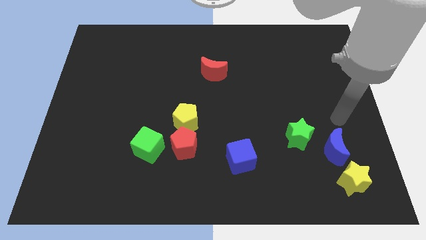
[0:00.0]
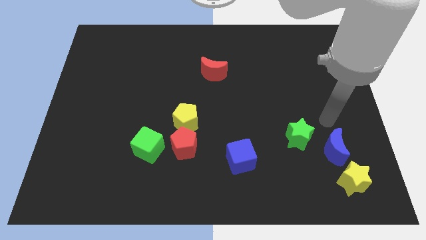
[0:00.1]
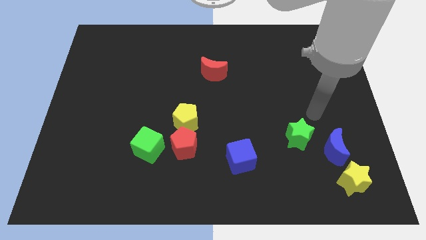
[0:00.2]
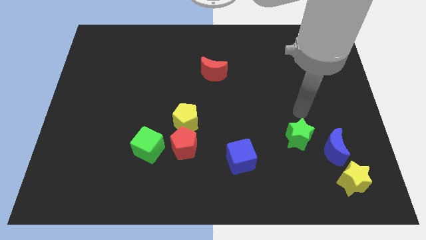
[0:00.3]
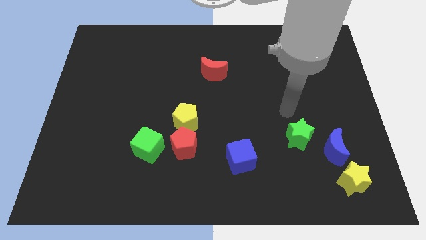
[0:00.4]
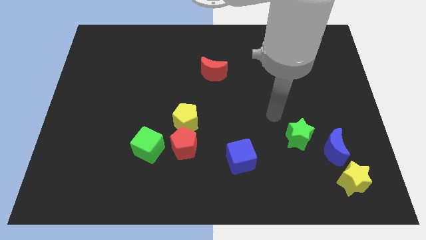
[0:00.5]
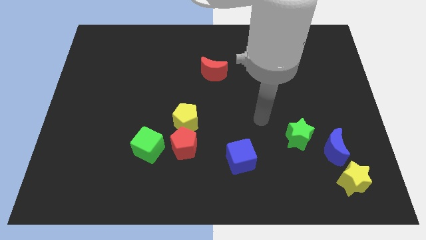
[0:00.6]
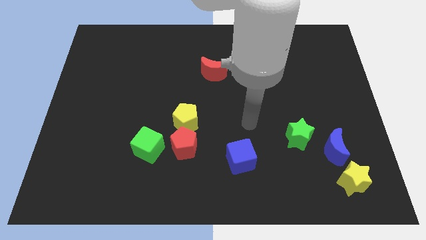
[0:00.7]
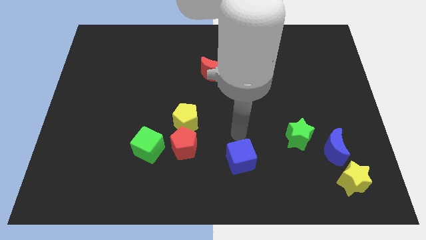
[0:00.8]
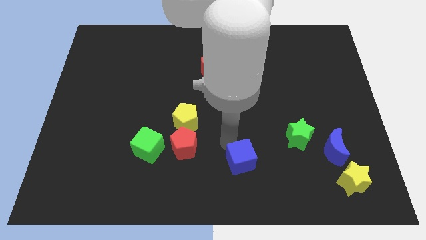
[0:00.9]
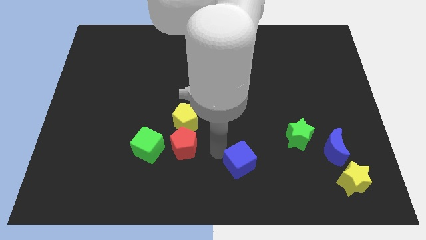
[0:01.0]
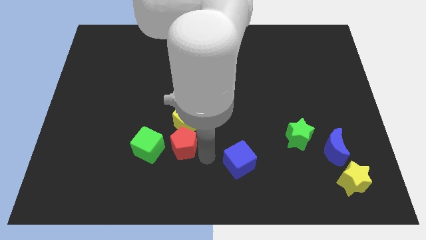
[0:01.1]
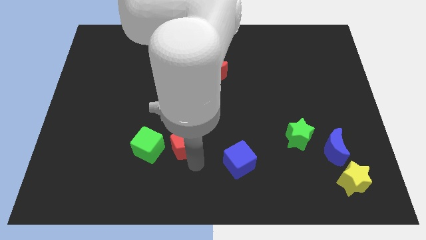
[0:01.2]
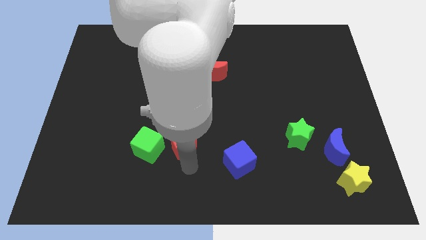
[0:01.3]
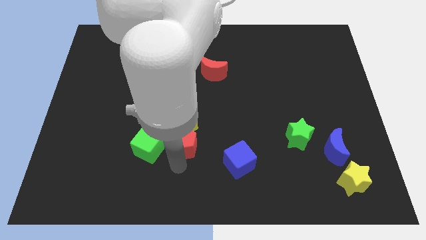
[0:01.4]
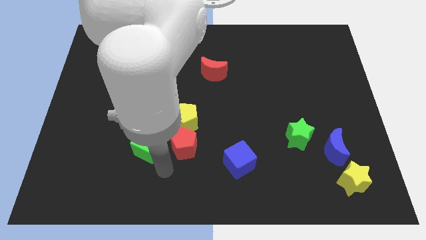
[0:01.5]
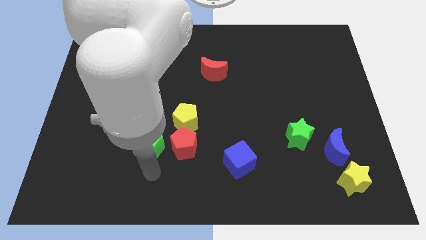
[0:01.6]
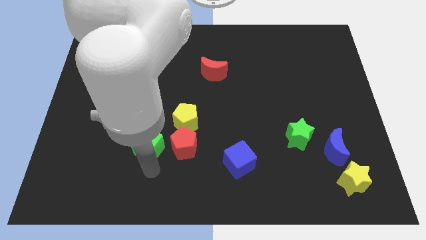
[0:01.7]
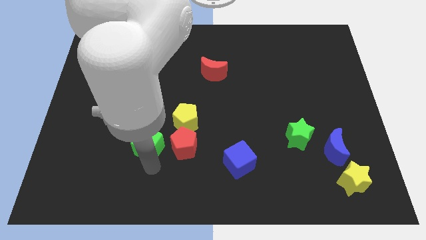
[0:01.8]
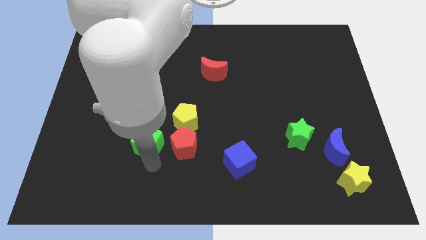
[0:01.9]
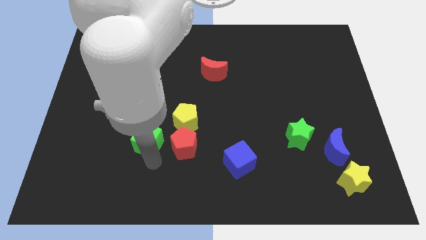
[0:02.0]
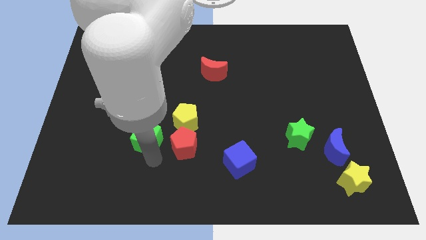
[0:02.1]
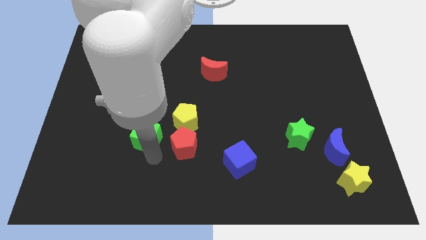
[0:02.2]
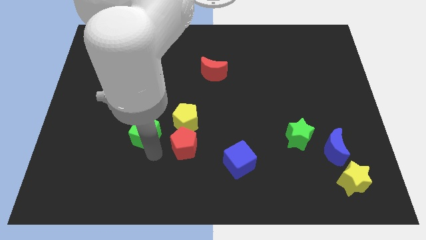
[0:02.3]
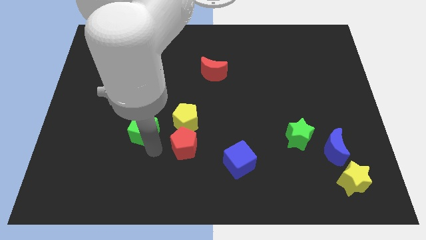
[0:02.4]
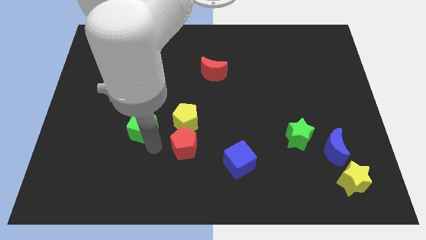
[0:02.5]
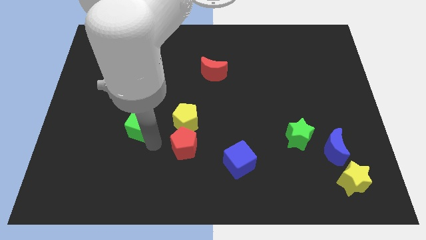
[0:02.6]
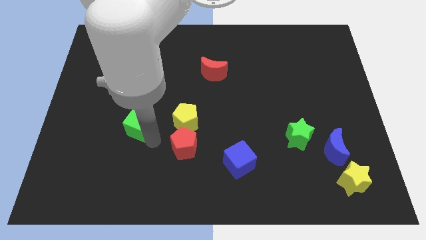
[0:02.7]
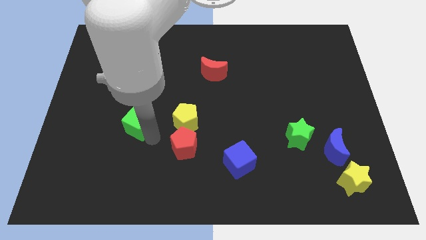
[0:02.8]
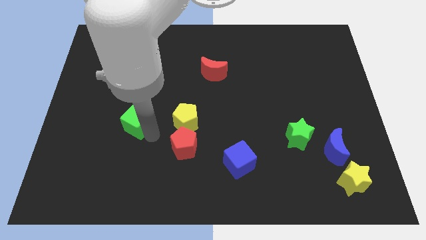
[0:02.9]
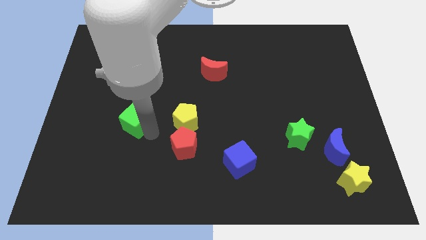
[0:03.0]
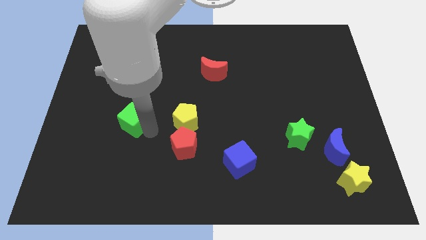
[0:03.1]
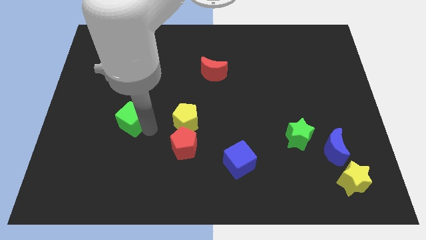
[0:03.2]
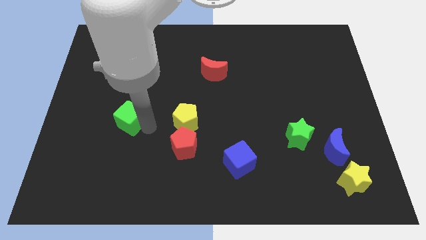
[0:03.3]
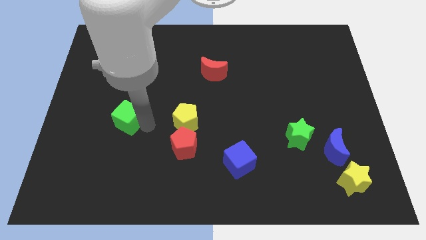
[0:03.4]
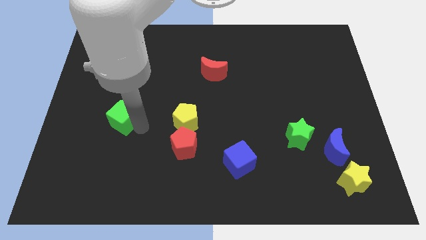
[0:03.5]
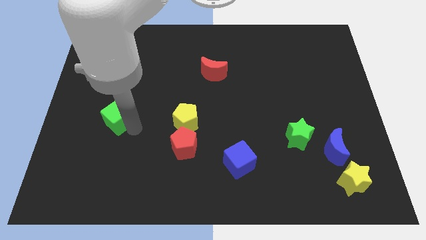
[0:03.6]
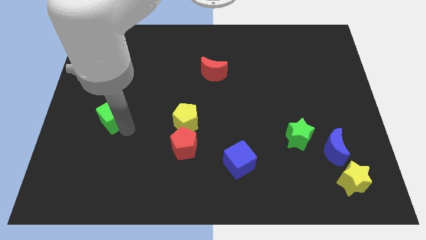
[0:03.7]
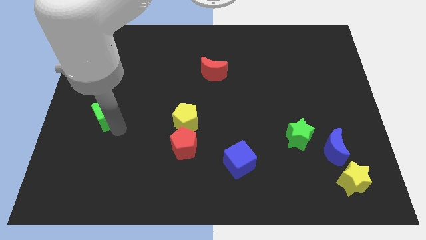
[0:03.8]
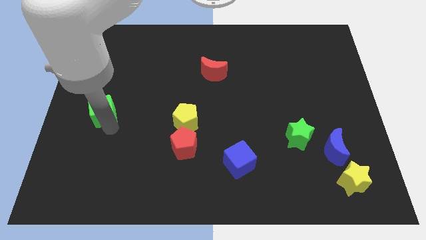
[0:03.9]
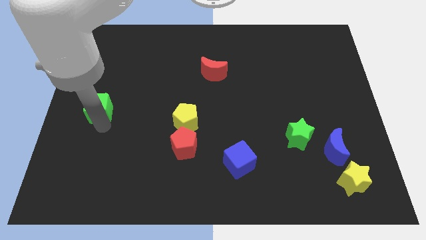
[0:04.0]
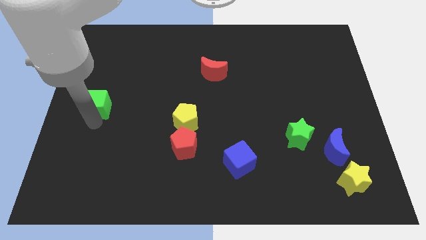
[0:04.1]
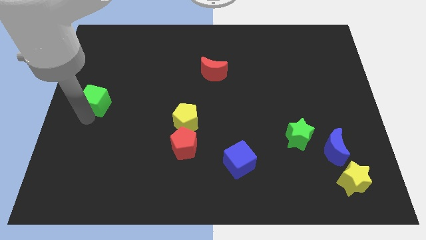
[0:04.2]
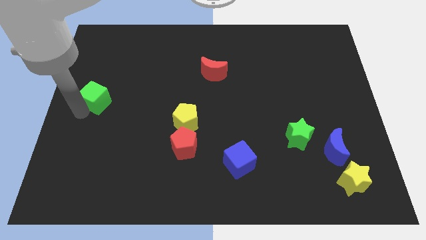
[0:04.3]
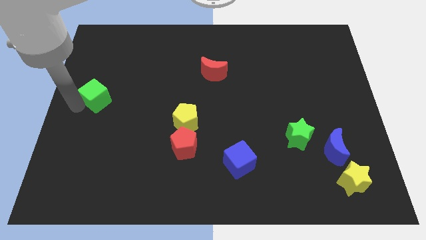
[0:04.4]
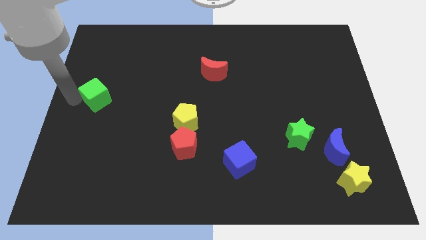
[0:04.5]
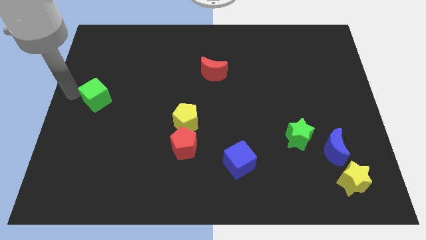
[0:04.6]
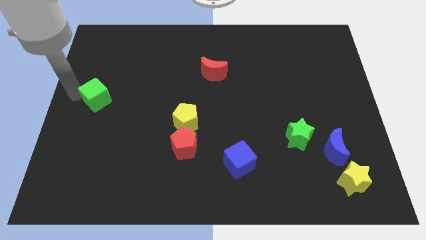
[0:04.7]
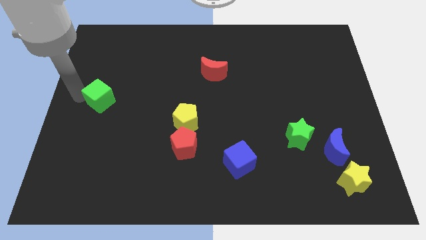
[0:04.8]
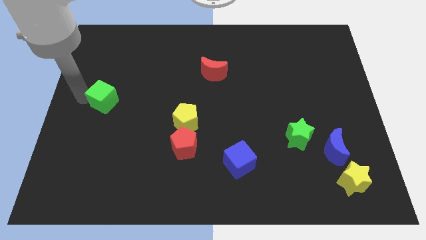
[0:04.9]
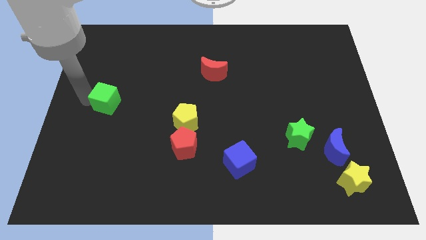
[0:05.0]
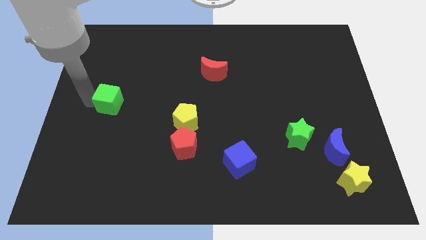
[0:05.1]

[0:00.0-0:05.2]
slide the green cube a little bit upwards

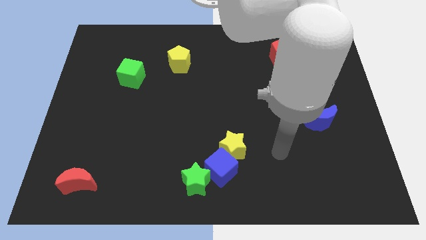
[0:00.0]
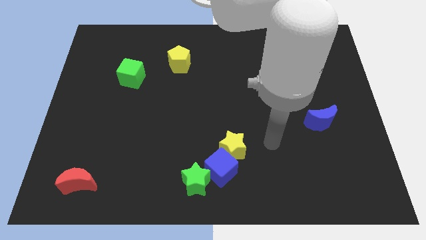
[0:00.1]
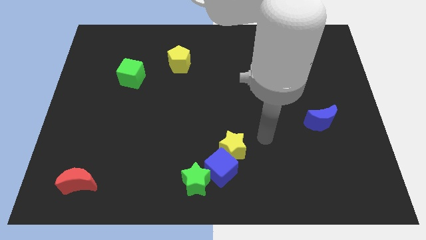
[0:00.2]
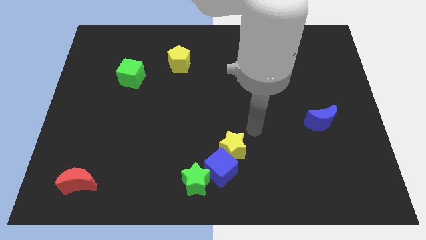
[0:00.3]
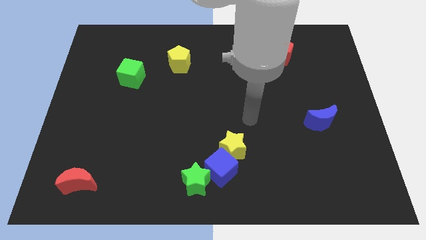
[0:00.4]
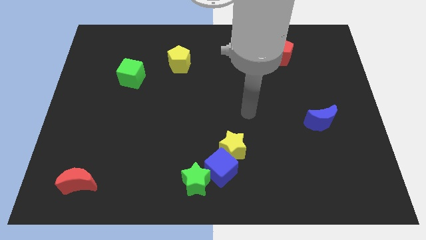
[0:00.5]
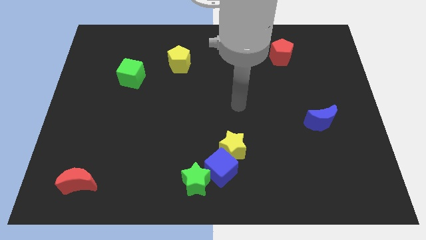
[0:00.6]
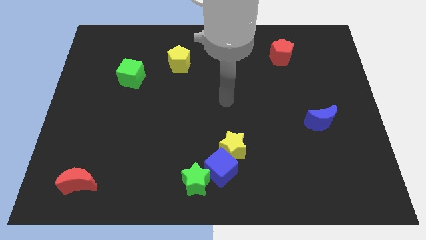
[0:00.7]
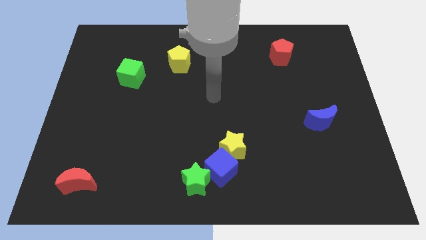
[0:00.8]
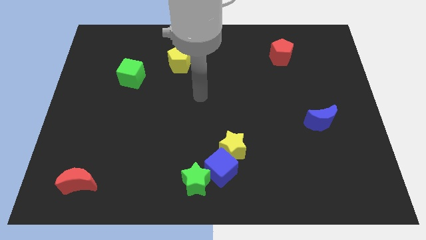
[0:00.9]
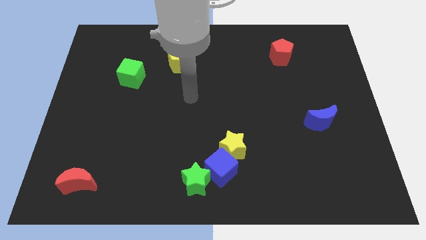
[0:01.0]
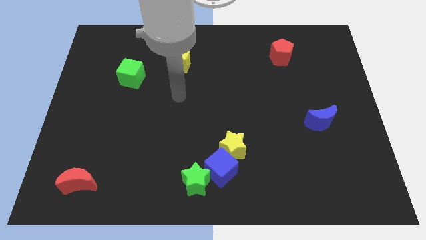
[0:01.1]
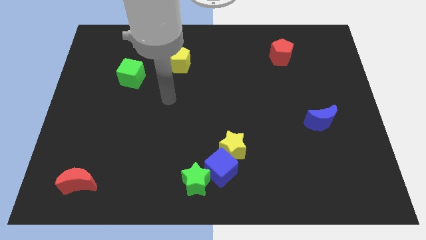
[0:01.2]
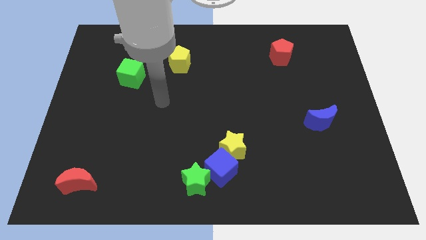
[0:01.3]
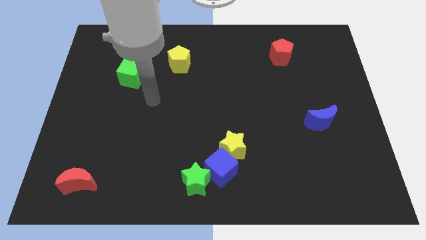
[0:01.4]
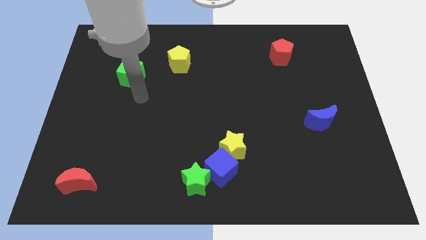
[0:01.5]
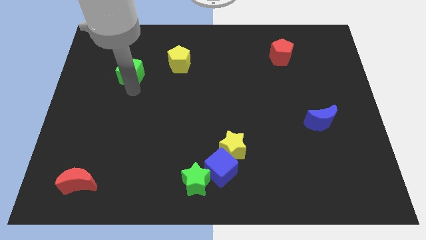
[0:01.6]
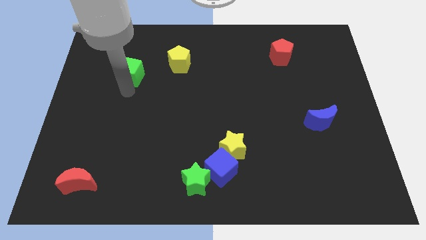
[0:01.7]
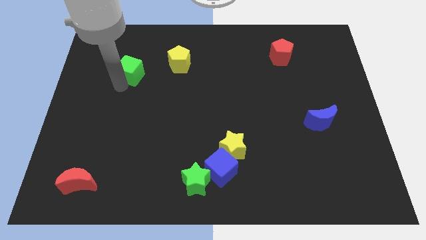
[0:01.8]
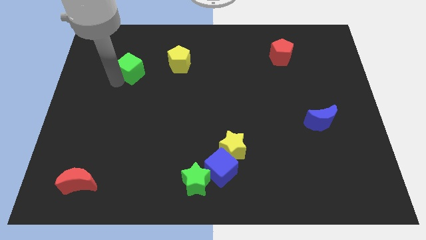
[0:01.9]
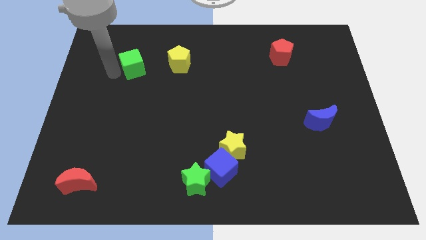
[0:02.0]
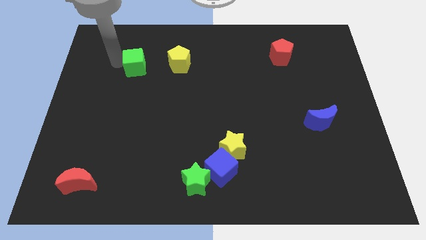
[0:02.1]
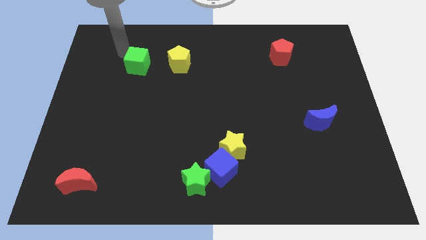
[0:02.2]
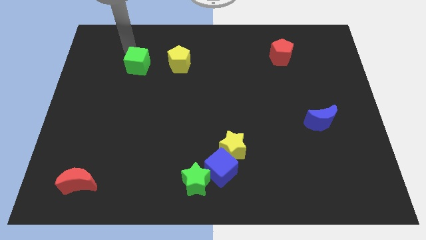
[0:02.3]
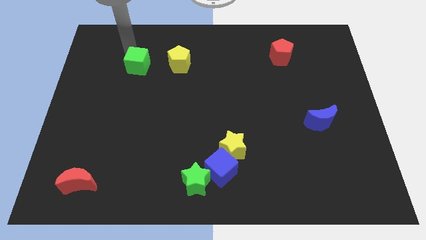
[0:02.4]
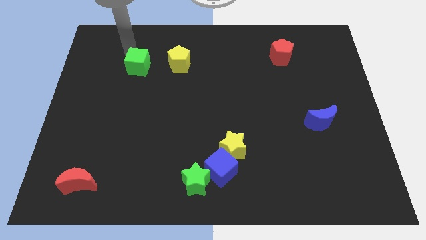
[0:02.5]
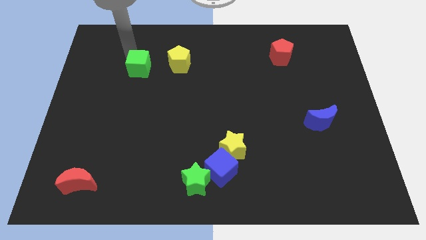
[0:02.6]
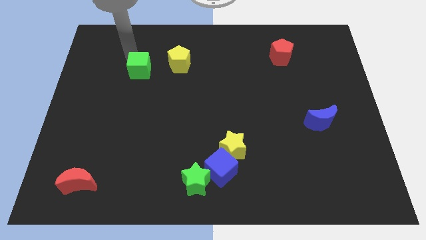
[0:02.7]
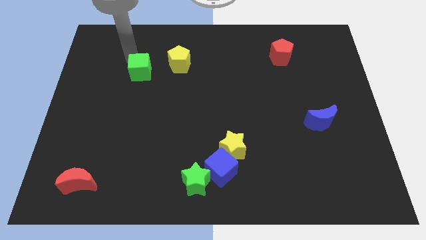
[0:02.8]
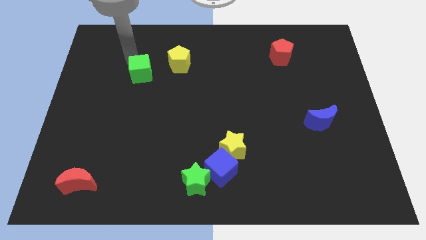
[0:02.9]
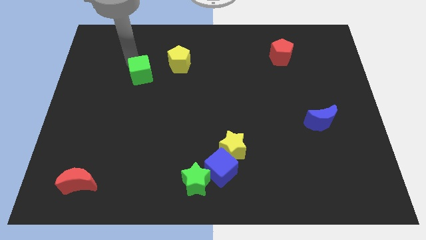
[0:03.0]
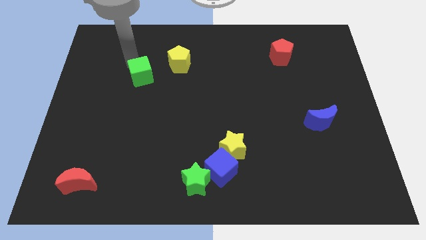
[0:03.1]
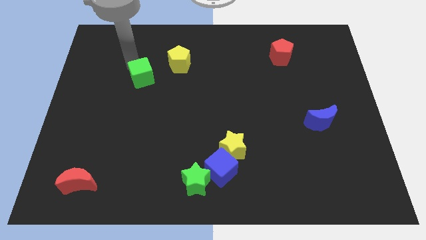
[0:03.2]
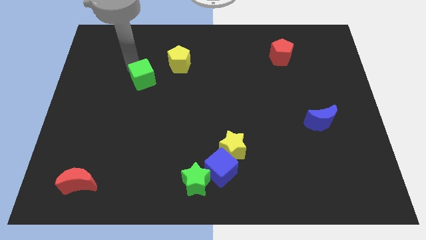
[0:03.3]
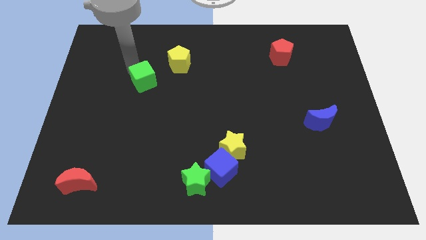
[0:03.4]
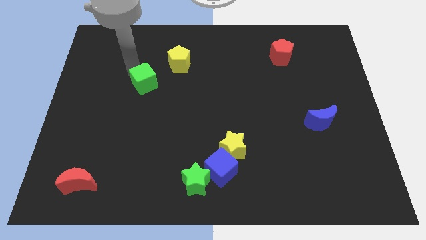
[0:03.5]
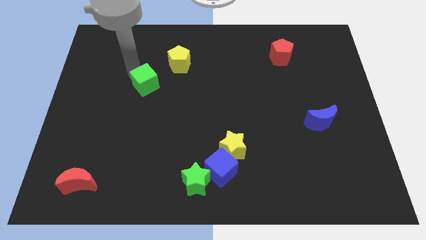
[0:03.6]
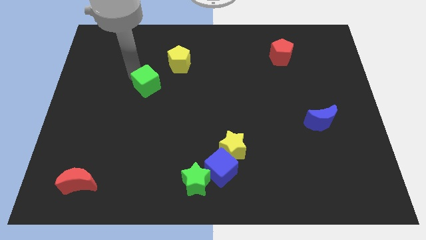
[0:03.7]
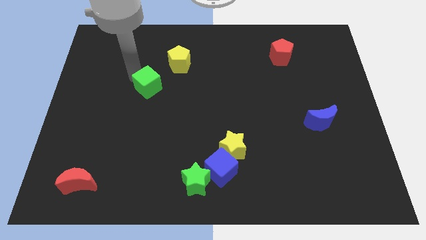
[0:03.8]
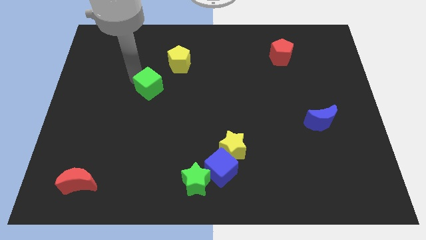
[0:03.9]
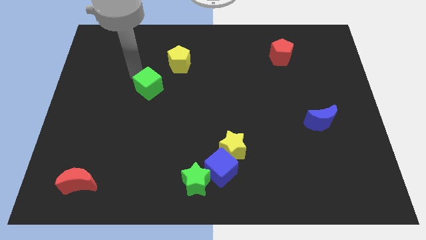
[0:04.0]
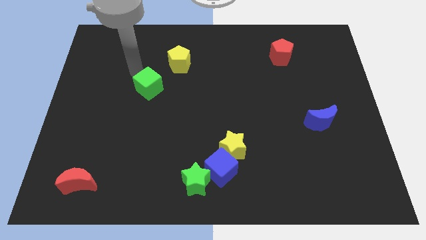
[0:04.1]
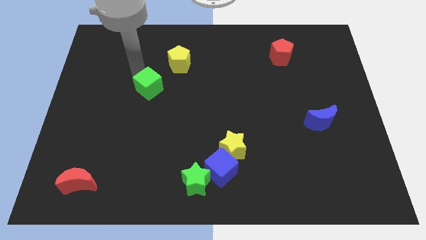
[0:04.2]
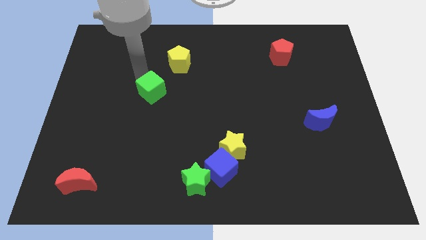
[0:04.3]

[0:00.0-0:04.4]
slightly slide the green cube down and then to the right
